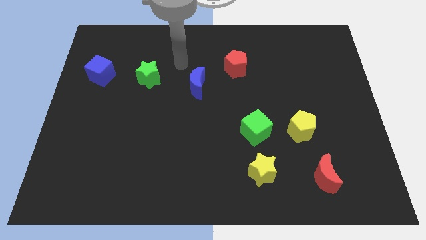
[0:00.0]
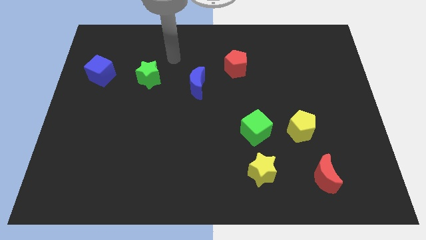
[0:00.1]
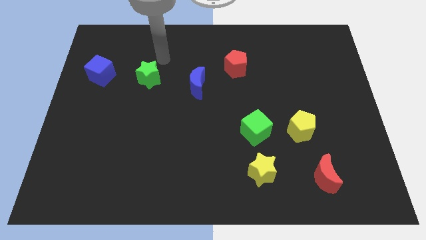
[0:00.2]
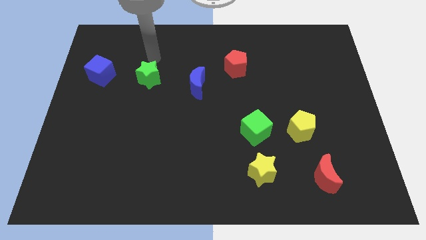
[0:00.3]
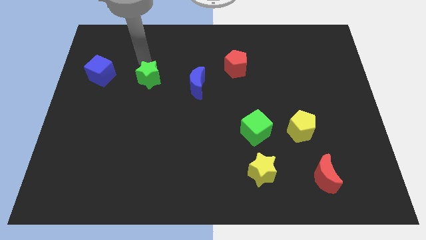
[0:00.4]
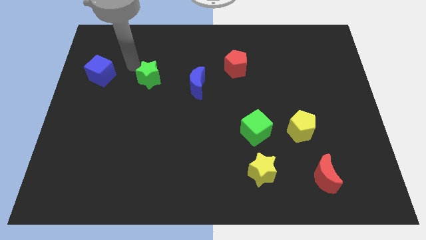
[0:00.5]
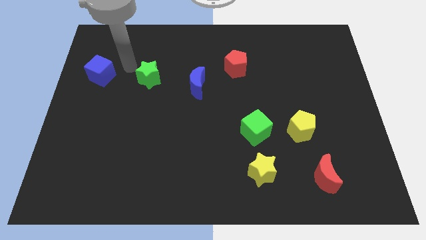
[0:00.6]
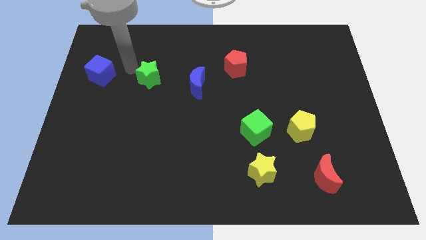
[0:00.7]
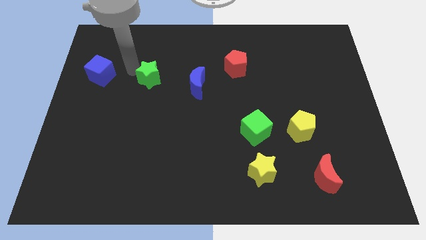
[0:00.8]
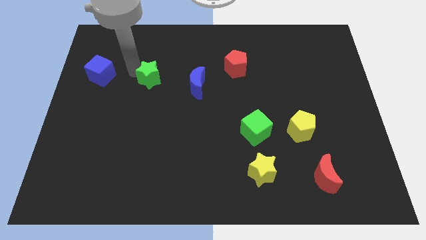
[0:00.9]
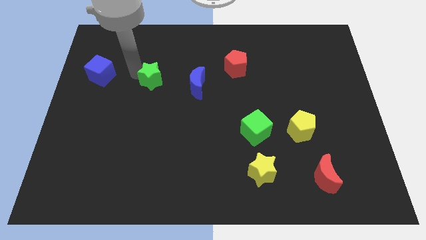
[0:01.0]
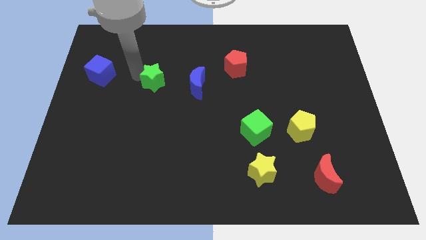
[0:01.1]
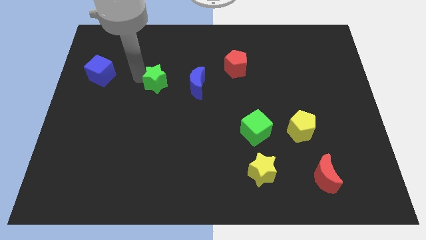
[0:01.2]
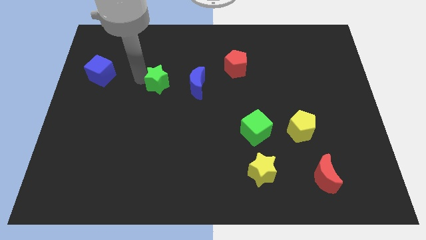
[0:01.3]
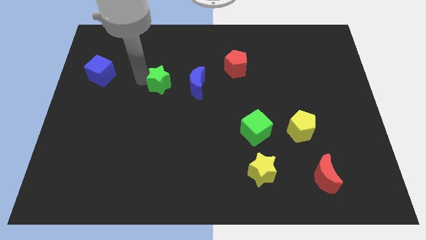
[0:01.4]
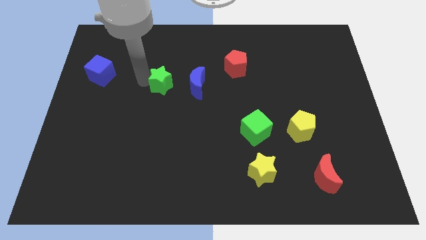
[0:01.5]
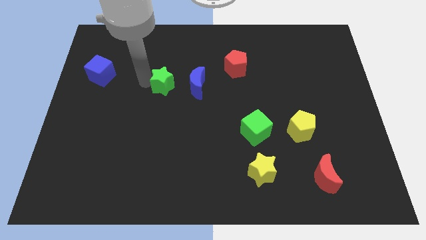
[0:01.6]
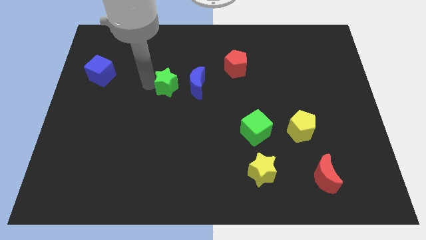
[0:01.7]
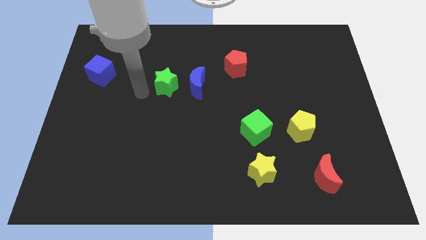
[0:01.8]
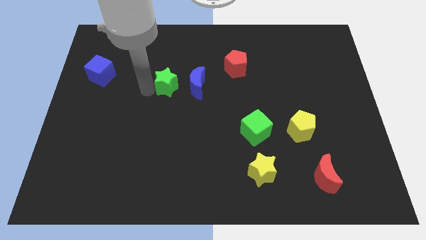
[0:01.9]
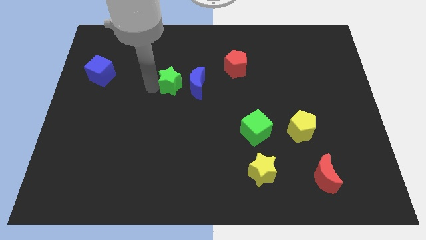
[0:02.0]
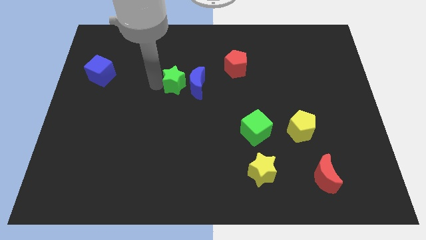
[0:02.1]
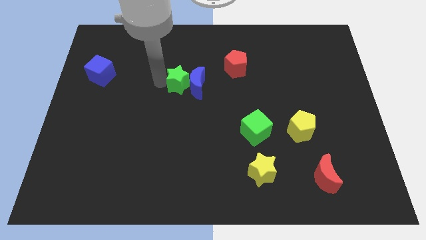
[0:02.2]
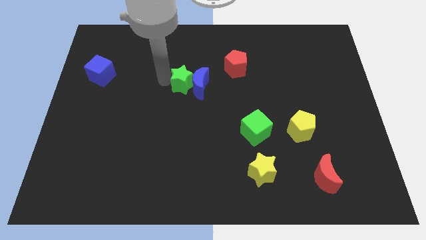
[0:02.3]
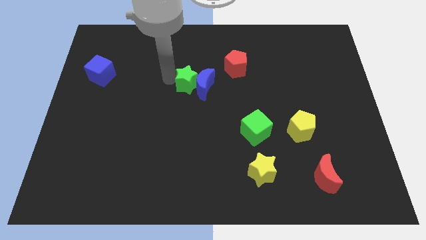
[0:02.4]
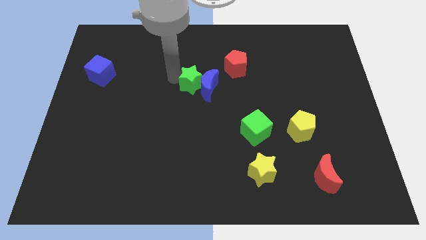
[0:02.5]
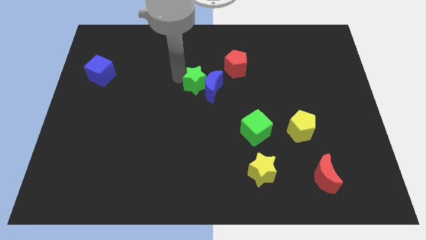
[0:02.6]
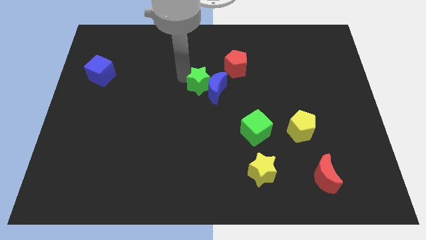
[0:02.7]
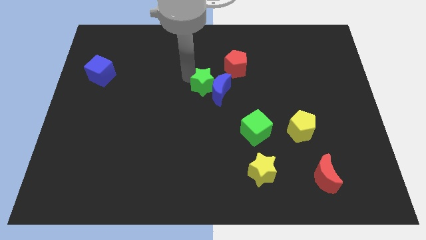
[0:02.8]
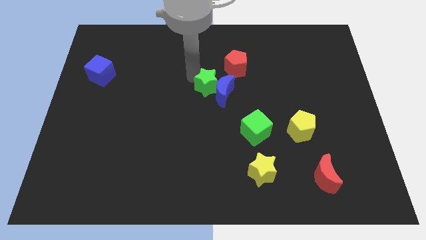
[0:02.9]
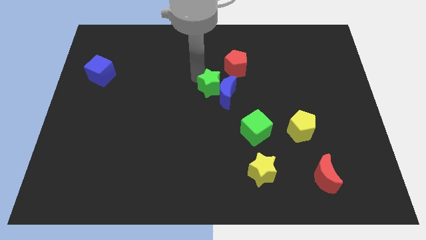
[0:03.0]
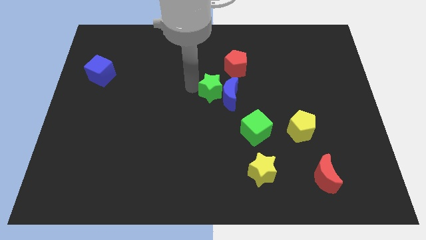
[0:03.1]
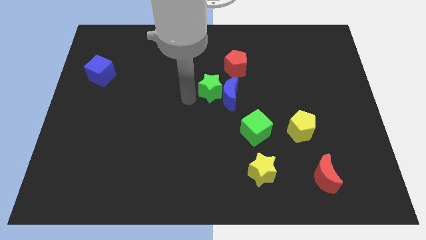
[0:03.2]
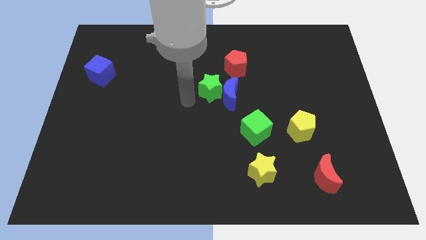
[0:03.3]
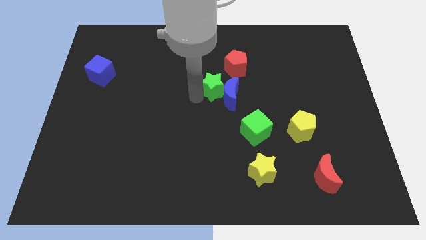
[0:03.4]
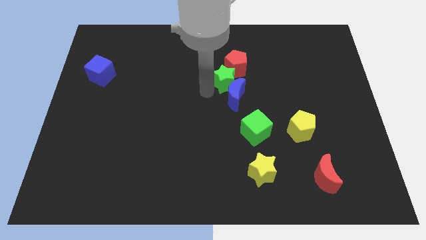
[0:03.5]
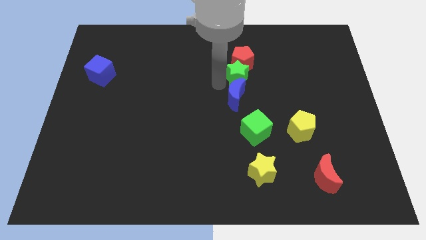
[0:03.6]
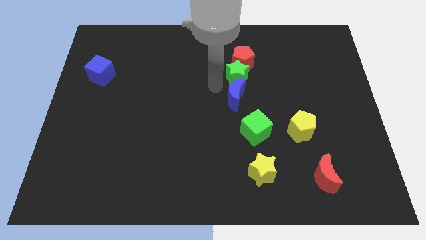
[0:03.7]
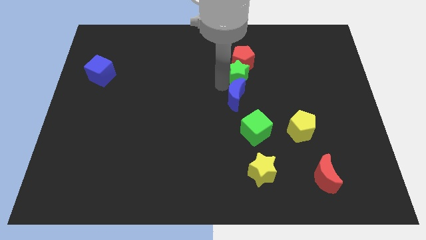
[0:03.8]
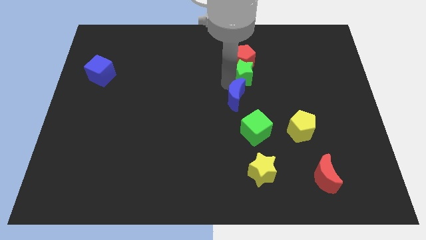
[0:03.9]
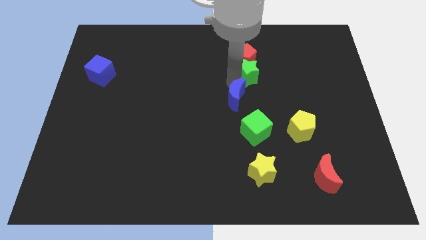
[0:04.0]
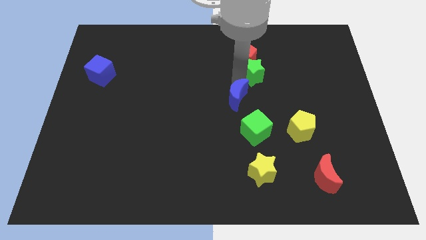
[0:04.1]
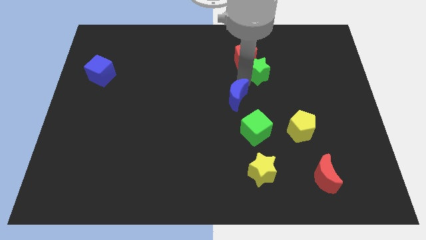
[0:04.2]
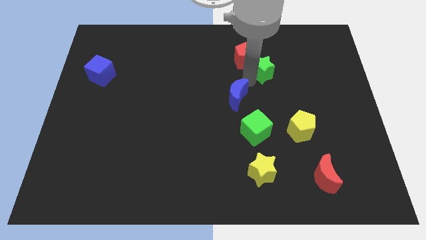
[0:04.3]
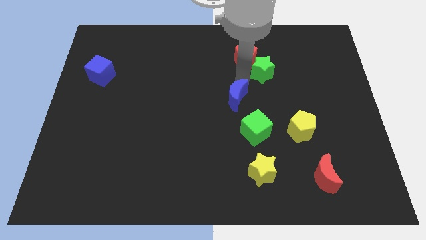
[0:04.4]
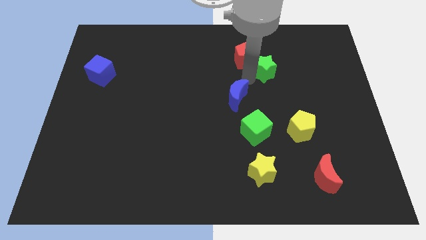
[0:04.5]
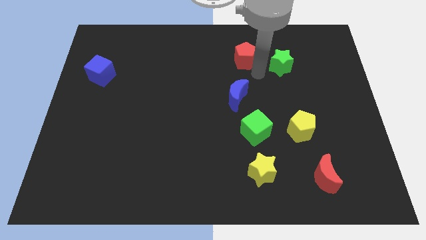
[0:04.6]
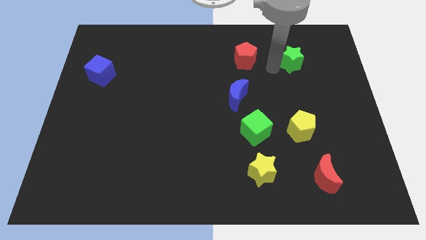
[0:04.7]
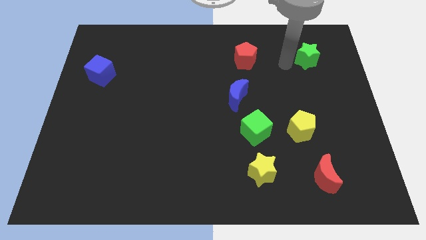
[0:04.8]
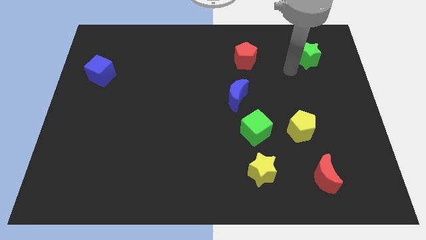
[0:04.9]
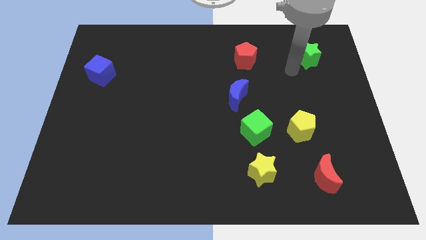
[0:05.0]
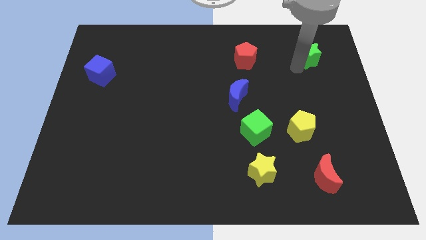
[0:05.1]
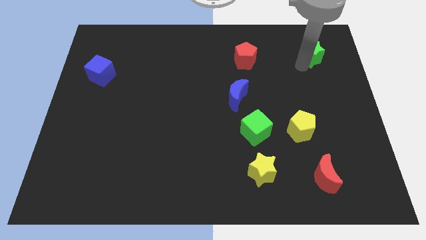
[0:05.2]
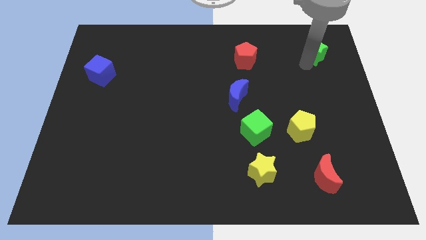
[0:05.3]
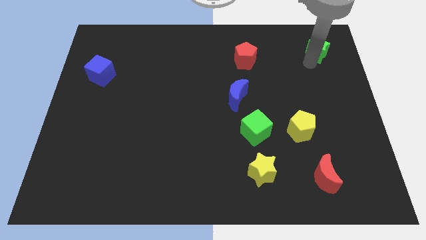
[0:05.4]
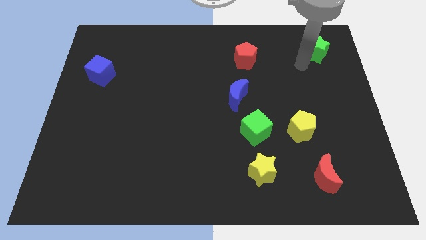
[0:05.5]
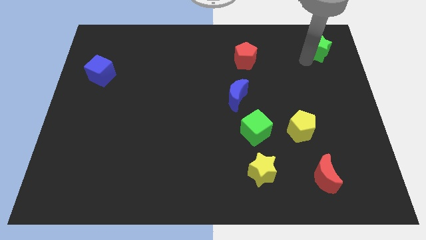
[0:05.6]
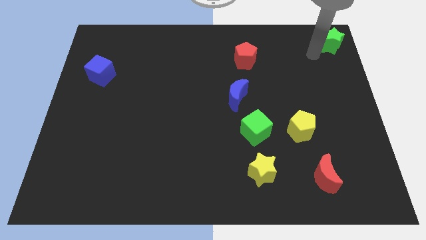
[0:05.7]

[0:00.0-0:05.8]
slide the green star to the top right of the board
